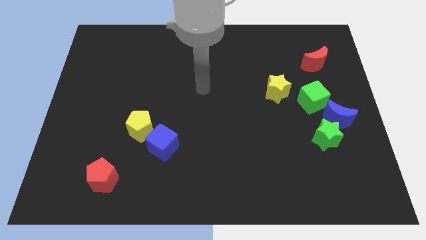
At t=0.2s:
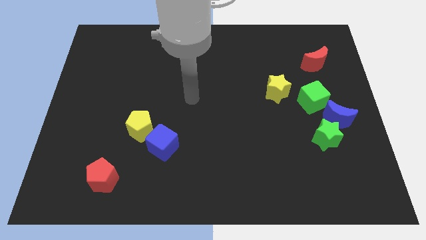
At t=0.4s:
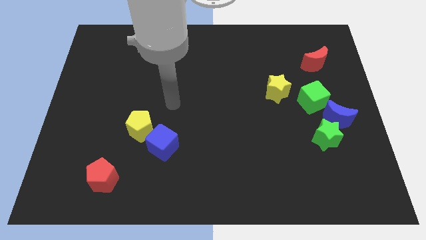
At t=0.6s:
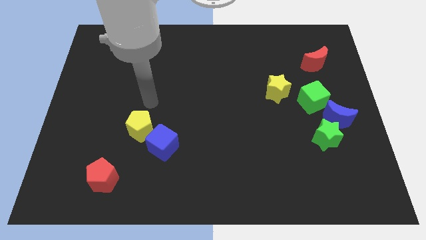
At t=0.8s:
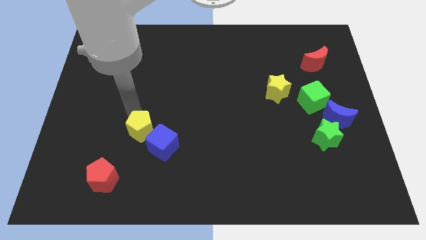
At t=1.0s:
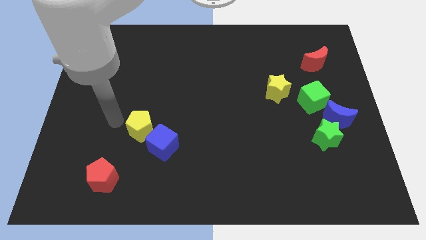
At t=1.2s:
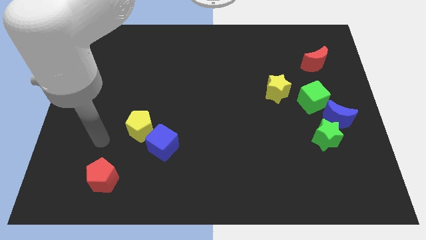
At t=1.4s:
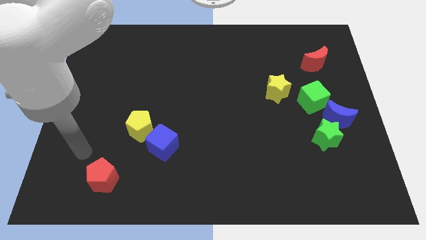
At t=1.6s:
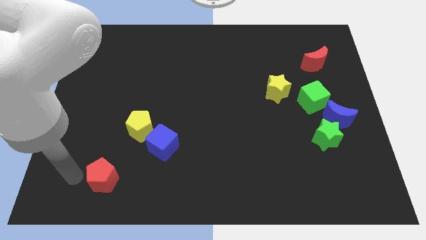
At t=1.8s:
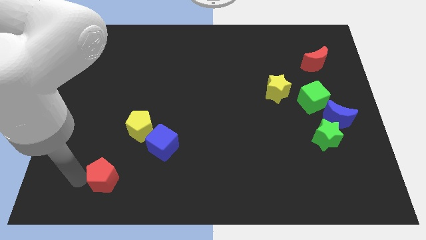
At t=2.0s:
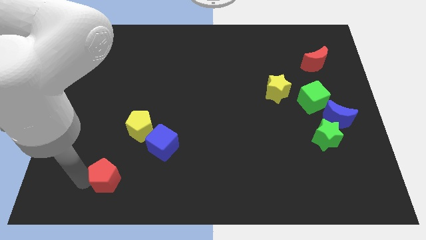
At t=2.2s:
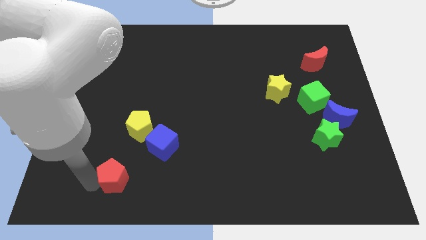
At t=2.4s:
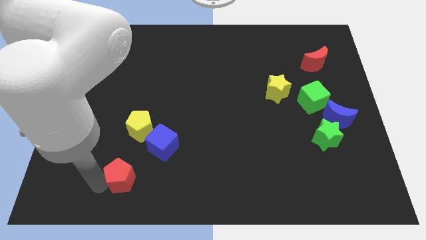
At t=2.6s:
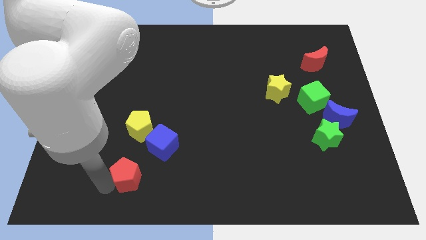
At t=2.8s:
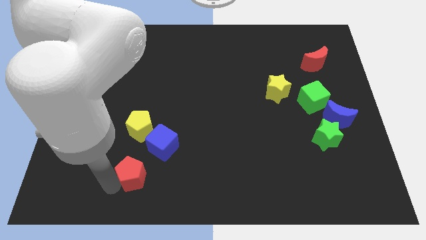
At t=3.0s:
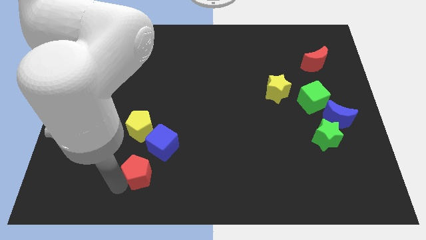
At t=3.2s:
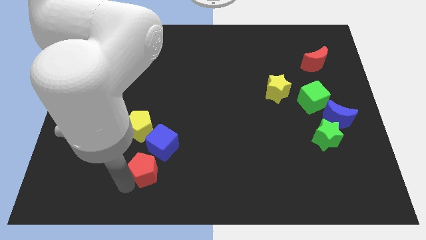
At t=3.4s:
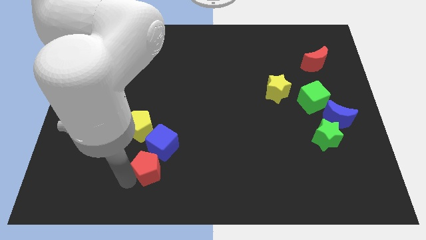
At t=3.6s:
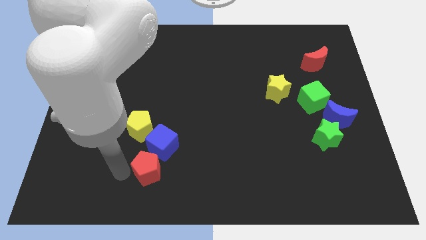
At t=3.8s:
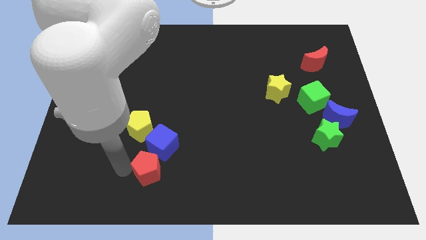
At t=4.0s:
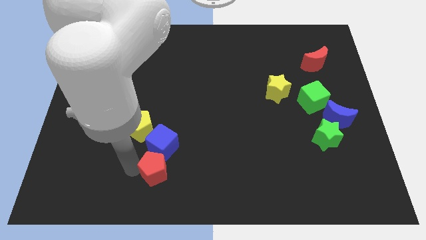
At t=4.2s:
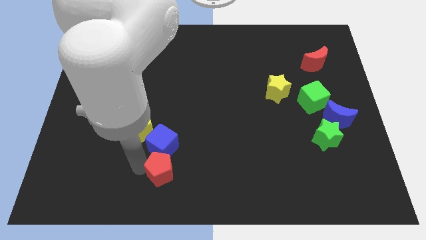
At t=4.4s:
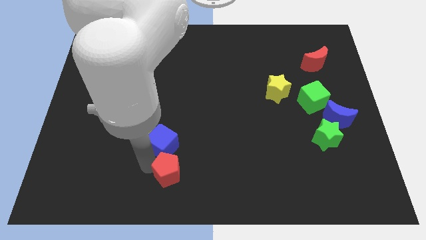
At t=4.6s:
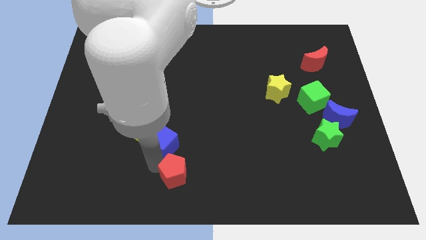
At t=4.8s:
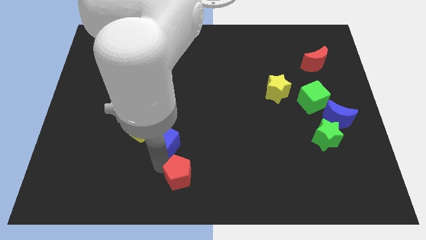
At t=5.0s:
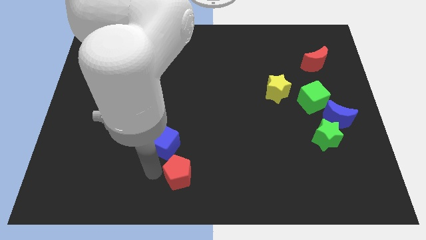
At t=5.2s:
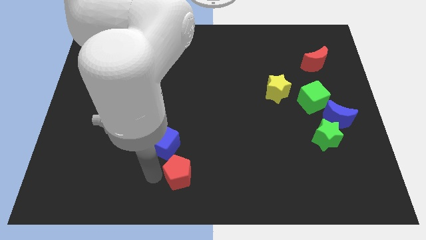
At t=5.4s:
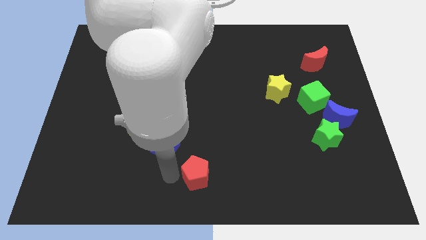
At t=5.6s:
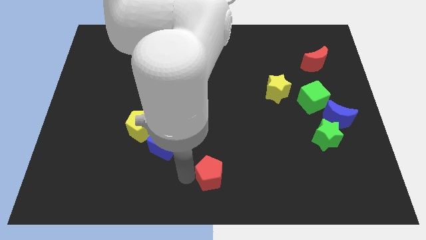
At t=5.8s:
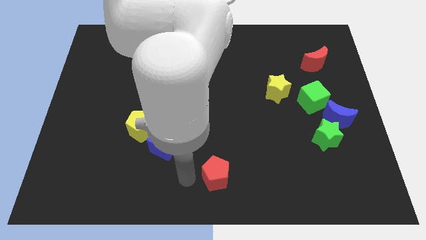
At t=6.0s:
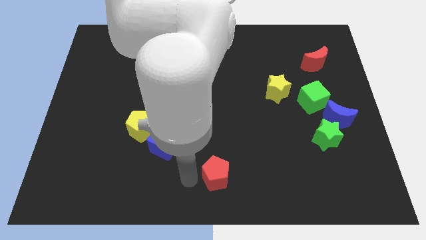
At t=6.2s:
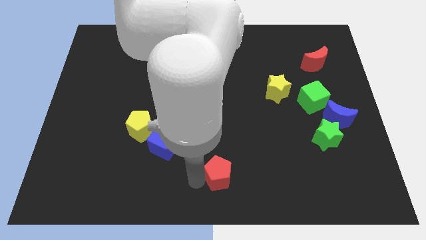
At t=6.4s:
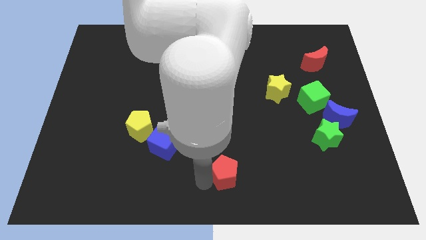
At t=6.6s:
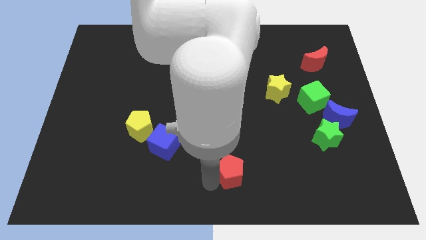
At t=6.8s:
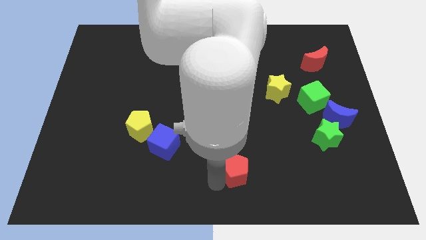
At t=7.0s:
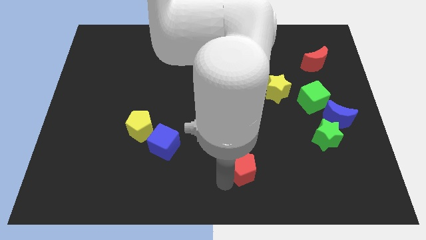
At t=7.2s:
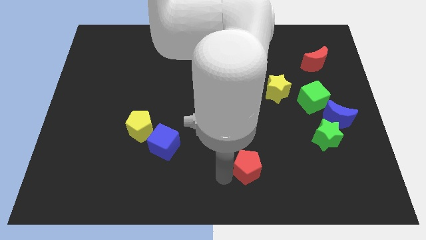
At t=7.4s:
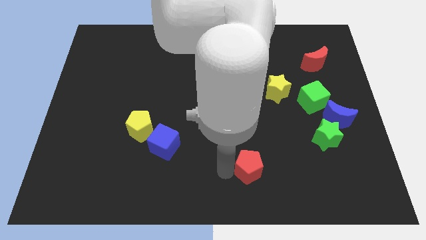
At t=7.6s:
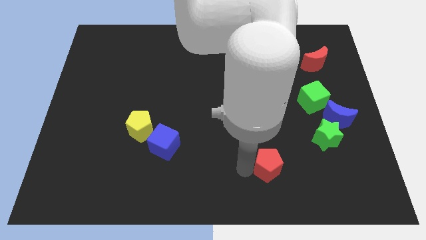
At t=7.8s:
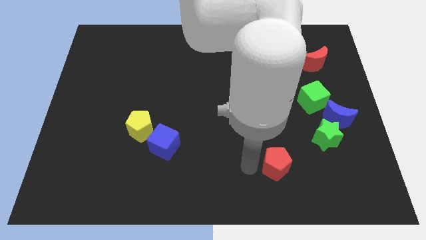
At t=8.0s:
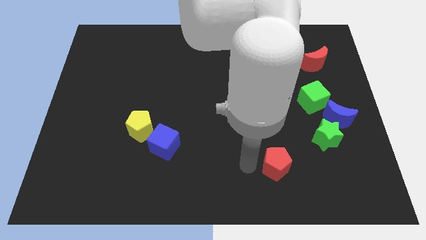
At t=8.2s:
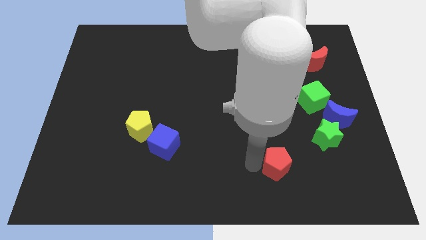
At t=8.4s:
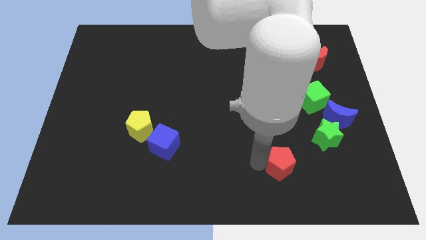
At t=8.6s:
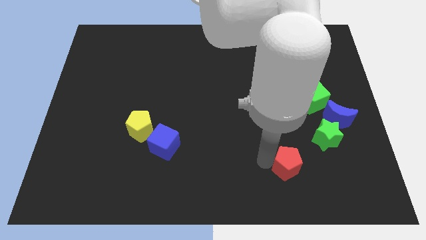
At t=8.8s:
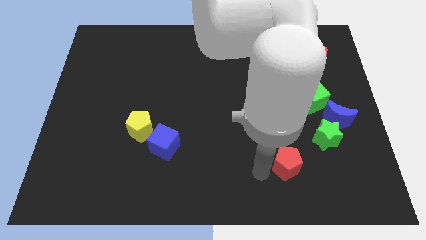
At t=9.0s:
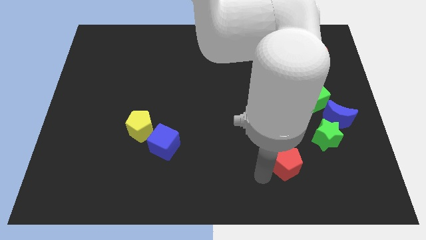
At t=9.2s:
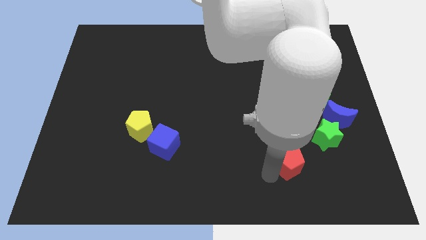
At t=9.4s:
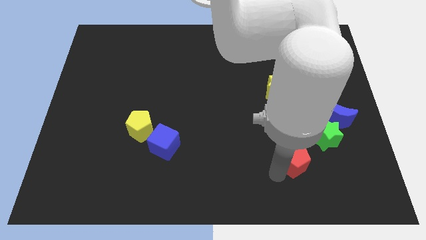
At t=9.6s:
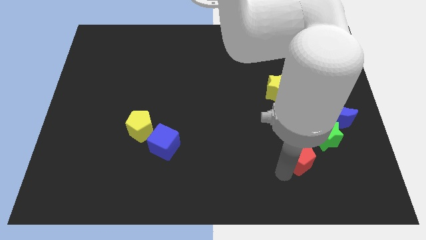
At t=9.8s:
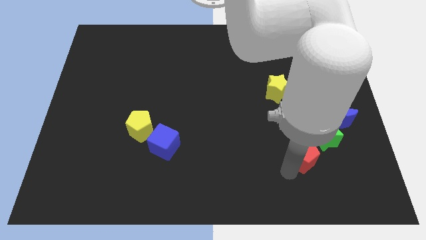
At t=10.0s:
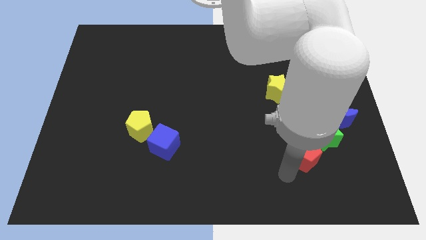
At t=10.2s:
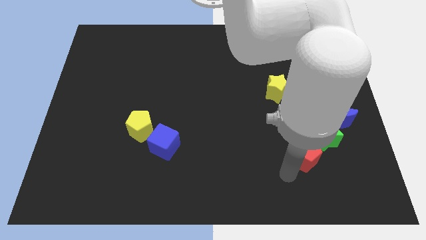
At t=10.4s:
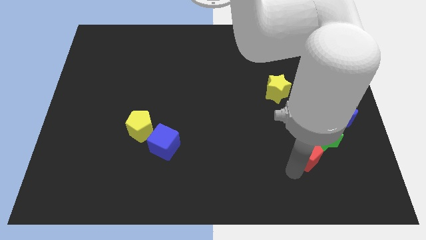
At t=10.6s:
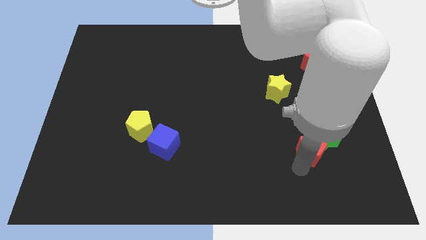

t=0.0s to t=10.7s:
slide the red pentagon to the green star
